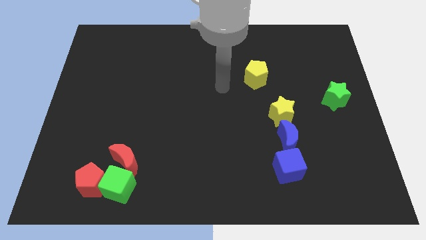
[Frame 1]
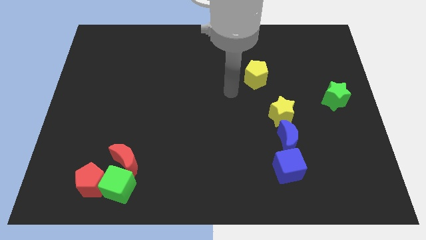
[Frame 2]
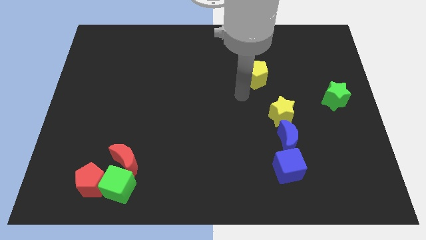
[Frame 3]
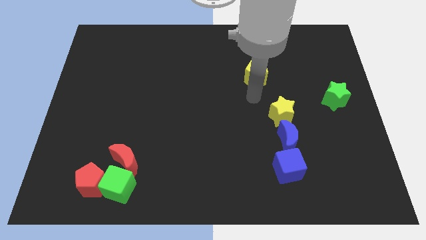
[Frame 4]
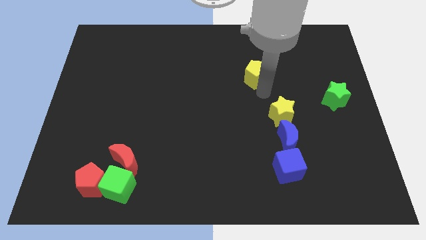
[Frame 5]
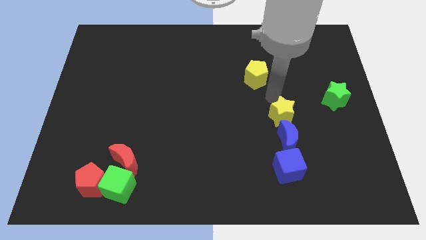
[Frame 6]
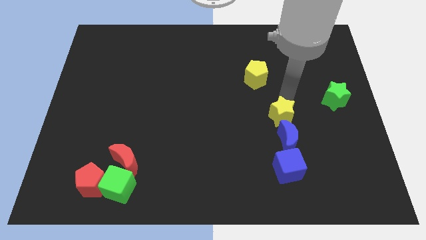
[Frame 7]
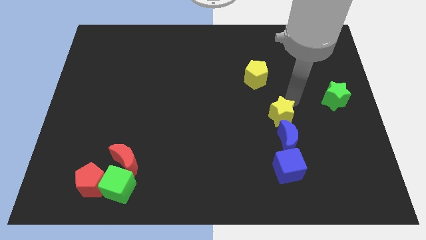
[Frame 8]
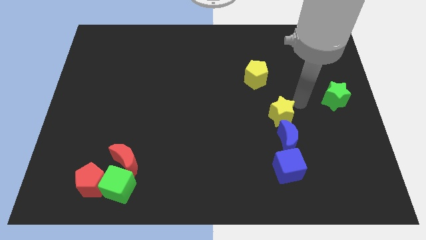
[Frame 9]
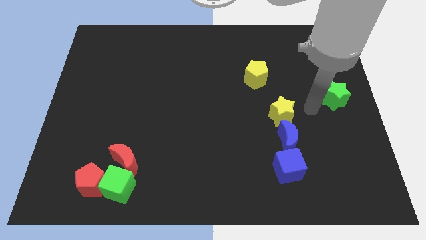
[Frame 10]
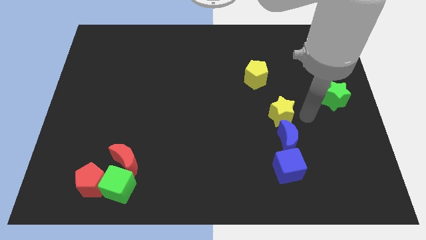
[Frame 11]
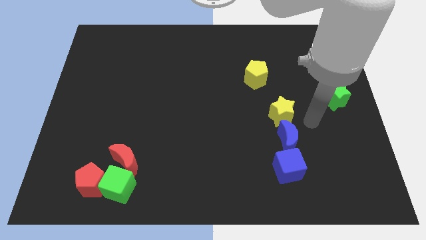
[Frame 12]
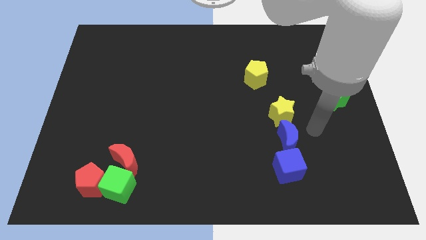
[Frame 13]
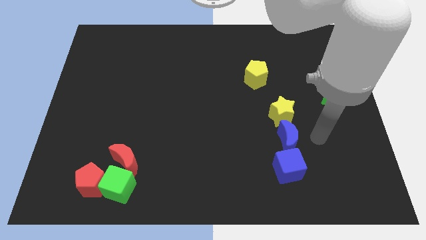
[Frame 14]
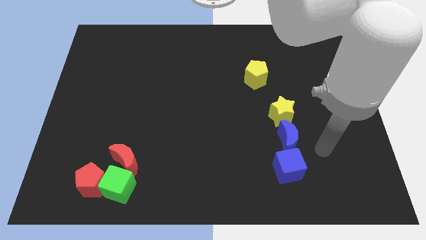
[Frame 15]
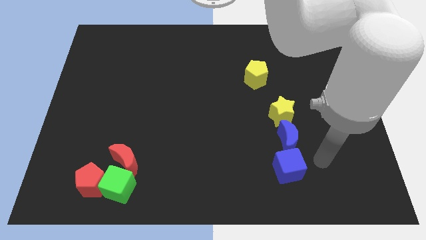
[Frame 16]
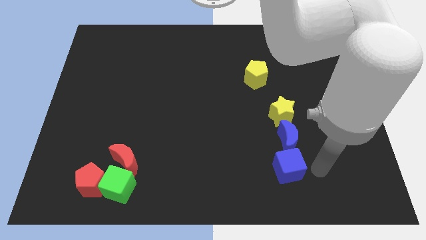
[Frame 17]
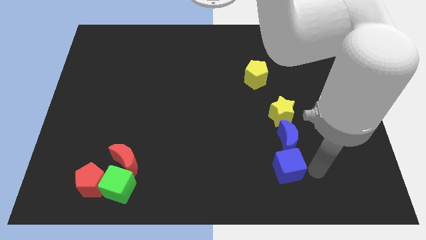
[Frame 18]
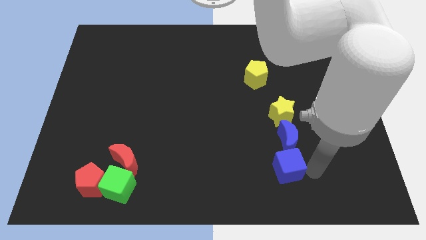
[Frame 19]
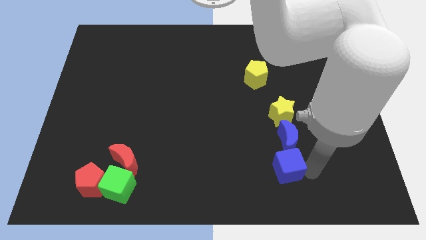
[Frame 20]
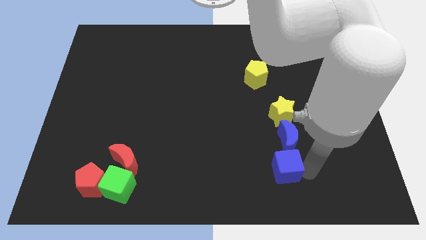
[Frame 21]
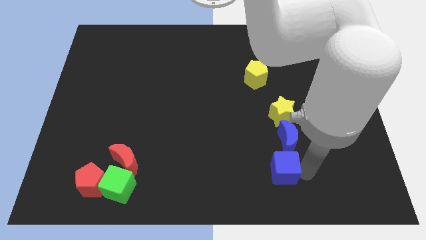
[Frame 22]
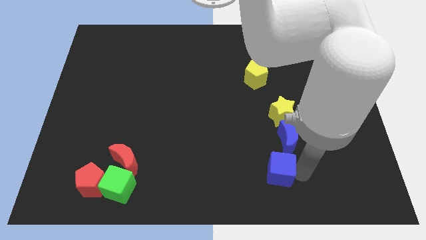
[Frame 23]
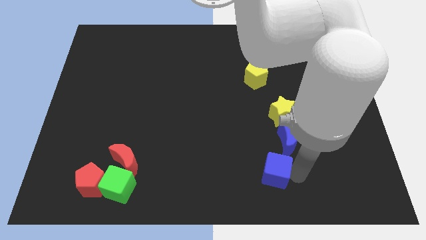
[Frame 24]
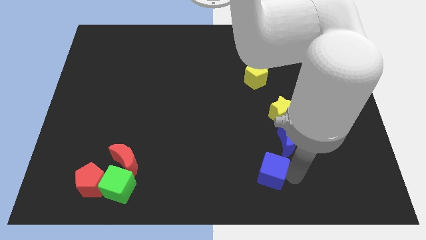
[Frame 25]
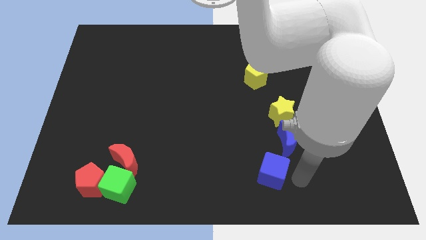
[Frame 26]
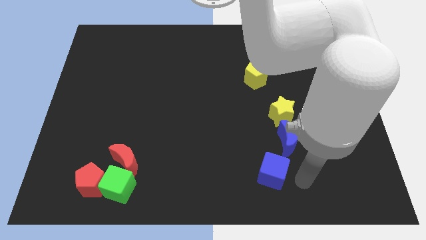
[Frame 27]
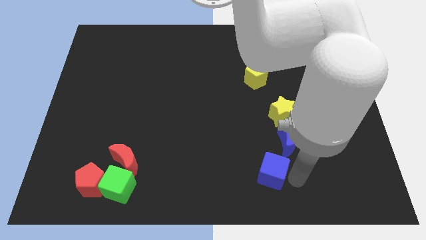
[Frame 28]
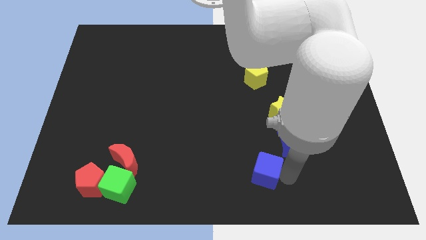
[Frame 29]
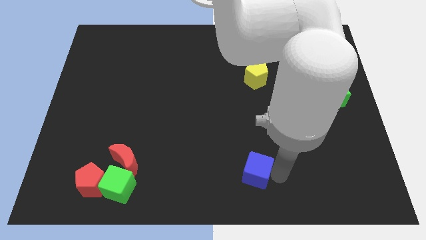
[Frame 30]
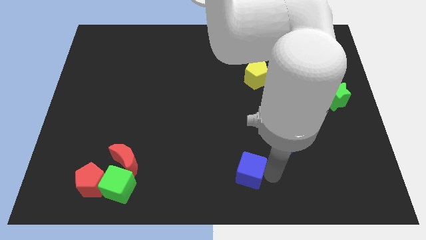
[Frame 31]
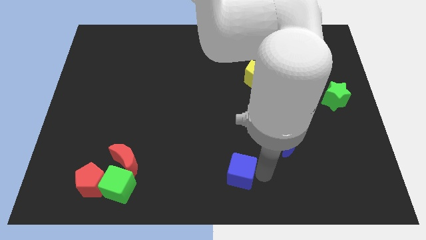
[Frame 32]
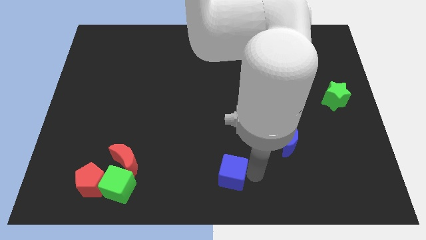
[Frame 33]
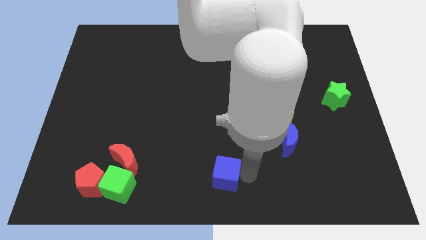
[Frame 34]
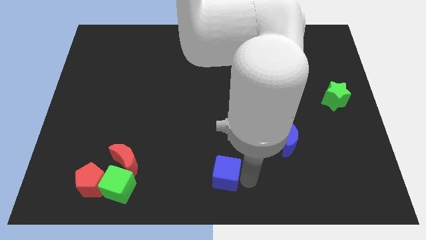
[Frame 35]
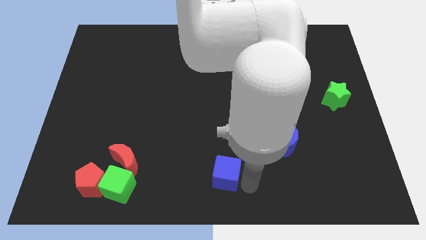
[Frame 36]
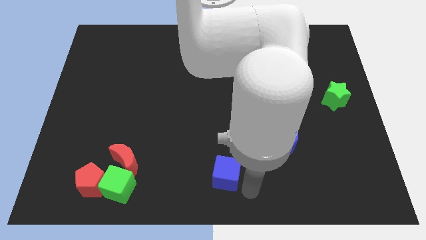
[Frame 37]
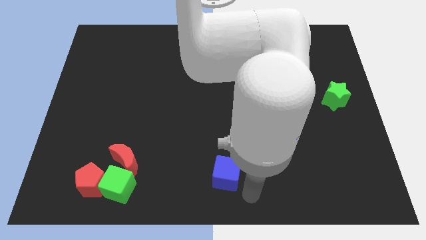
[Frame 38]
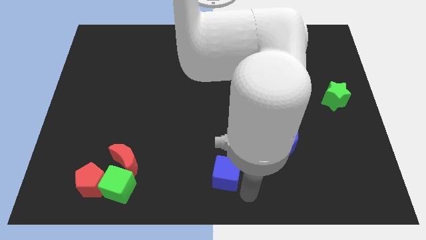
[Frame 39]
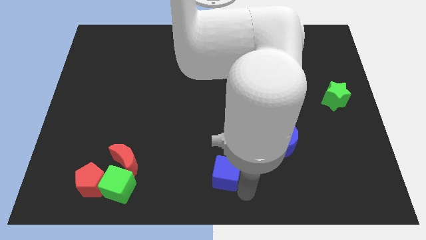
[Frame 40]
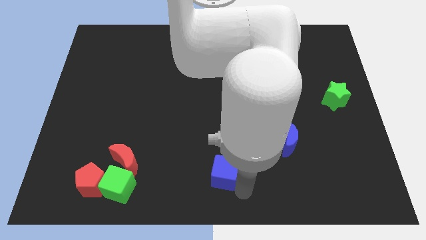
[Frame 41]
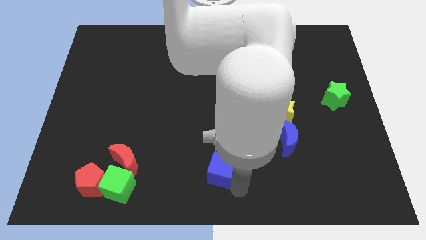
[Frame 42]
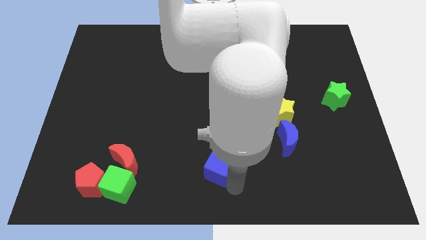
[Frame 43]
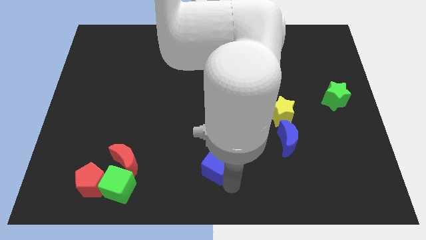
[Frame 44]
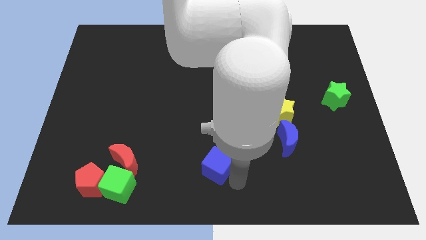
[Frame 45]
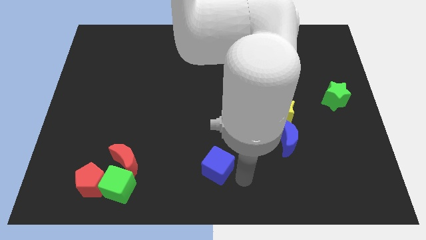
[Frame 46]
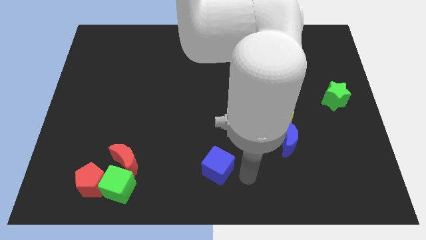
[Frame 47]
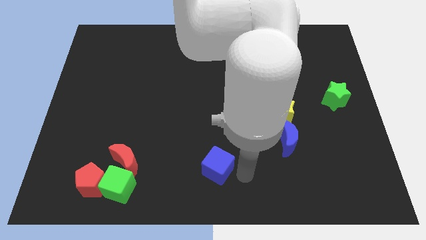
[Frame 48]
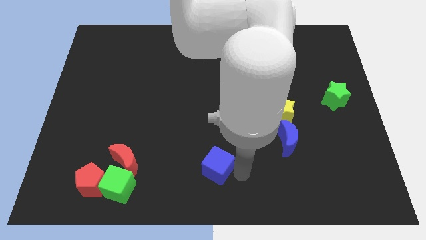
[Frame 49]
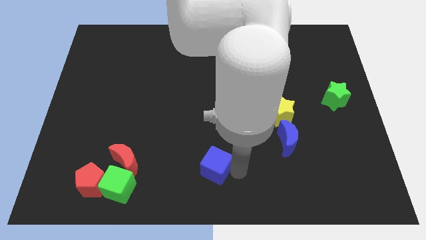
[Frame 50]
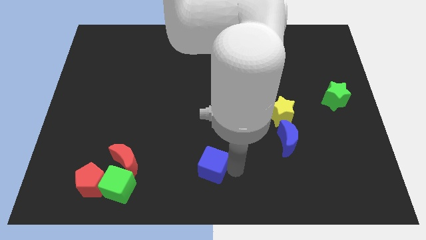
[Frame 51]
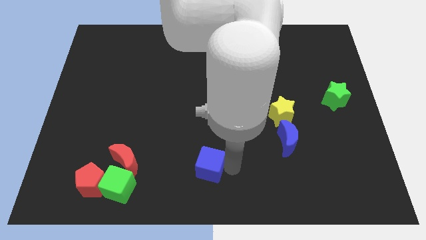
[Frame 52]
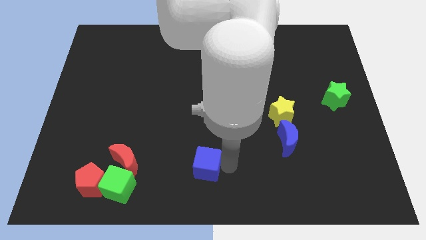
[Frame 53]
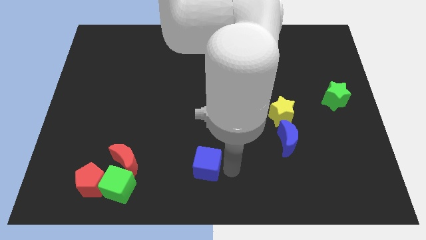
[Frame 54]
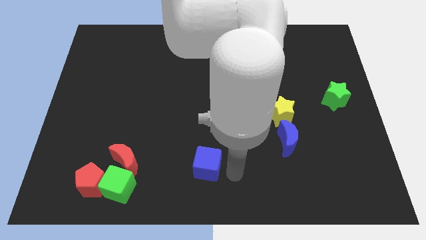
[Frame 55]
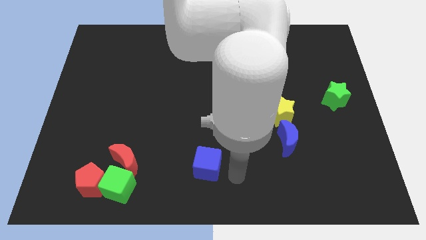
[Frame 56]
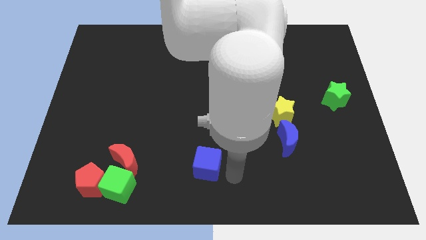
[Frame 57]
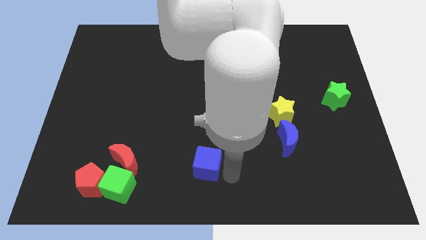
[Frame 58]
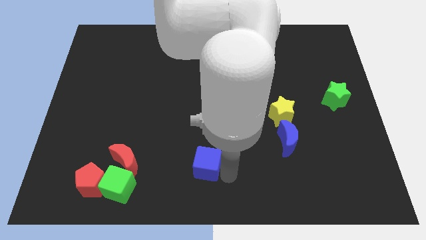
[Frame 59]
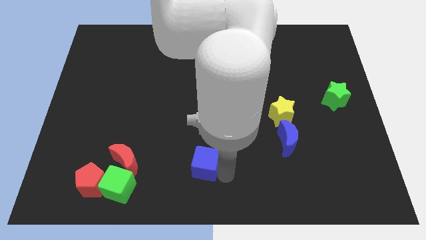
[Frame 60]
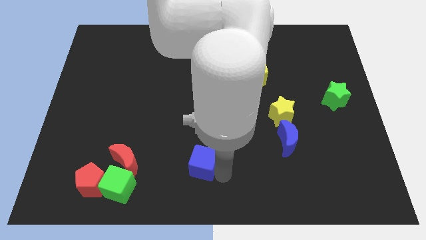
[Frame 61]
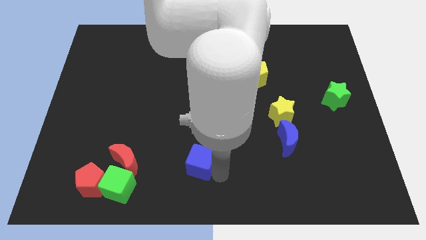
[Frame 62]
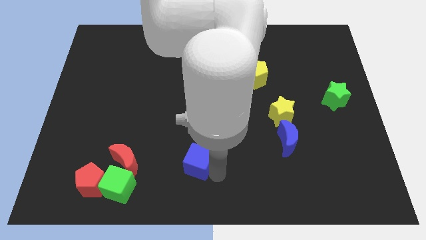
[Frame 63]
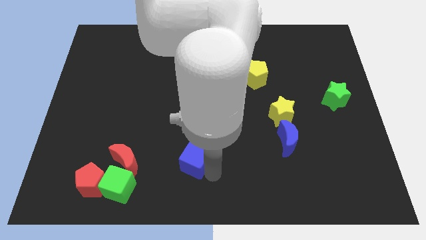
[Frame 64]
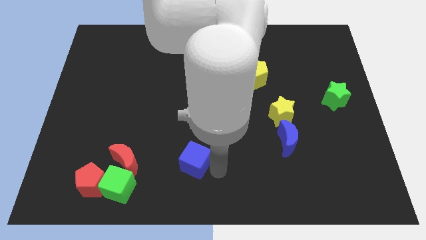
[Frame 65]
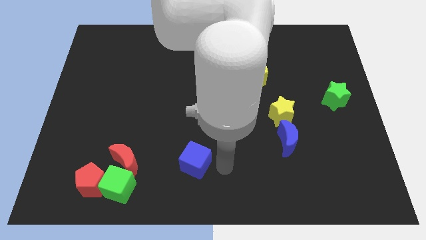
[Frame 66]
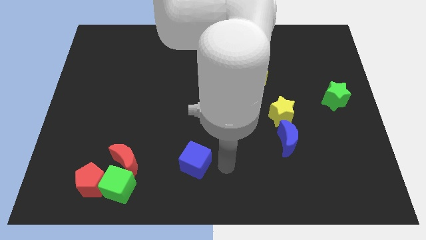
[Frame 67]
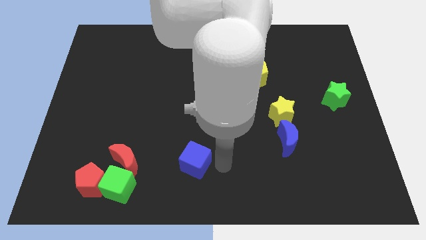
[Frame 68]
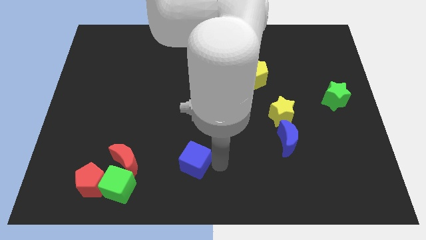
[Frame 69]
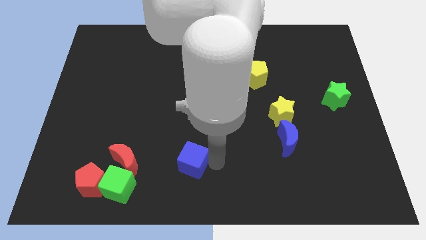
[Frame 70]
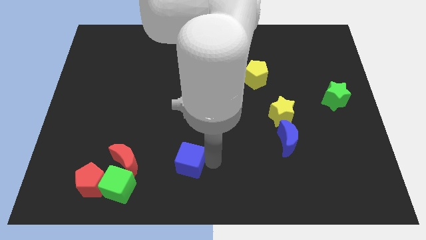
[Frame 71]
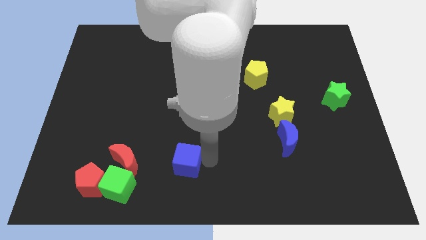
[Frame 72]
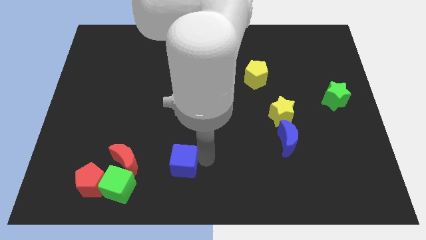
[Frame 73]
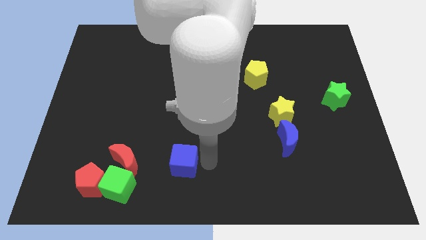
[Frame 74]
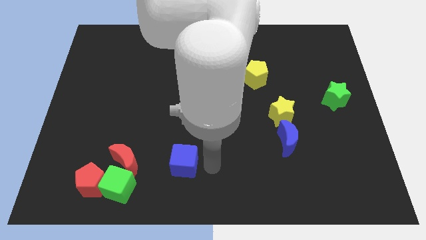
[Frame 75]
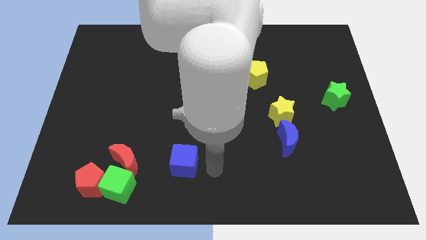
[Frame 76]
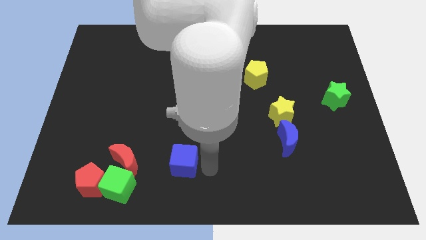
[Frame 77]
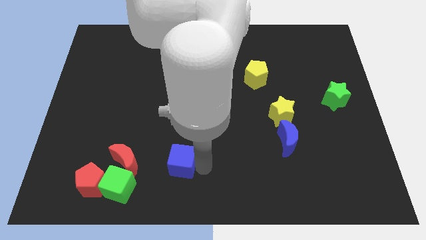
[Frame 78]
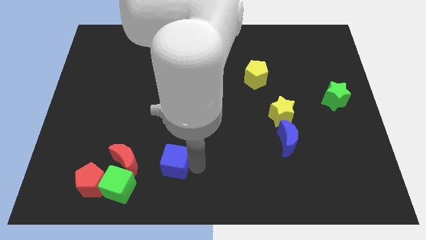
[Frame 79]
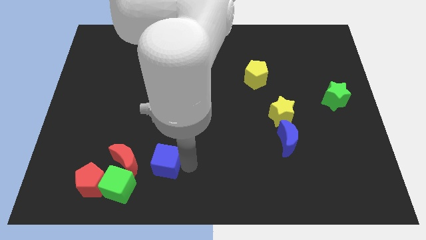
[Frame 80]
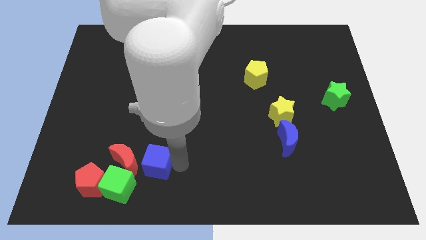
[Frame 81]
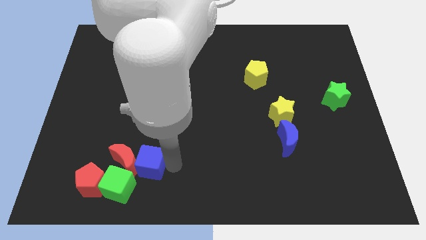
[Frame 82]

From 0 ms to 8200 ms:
slide the blue cube next to the red moon
